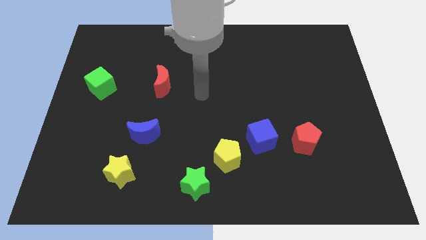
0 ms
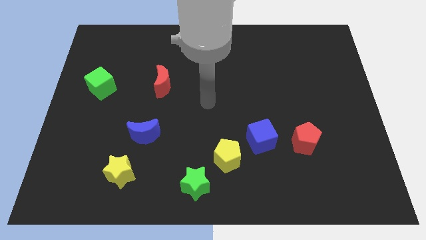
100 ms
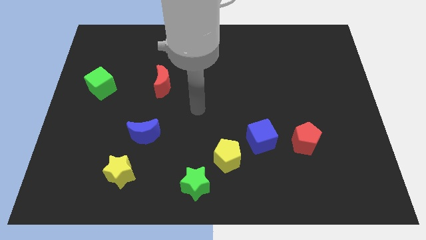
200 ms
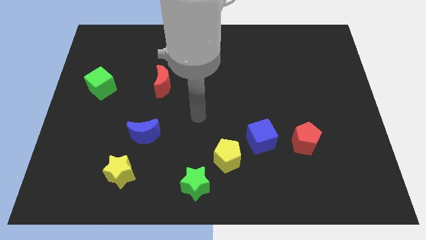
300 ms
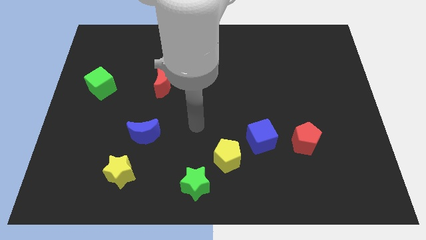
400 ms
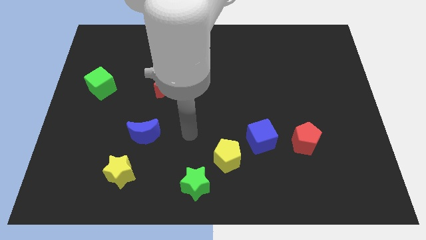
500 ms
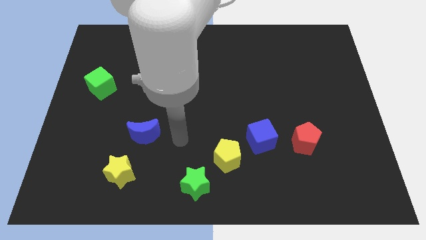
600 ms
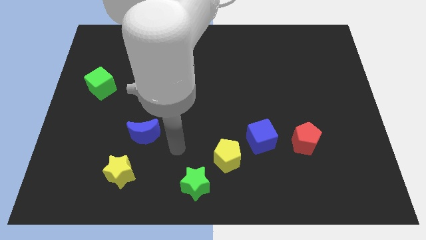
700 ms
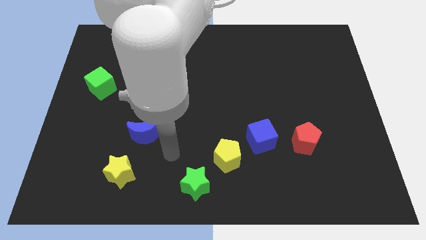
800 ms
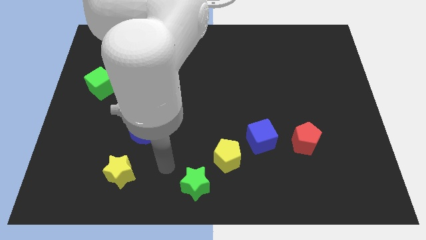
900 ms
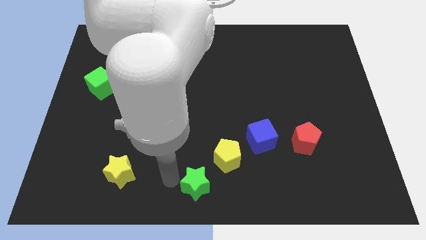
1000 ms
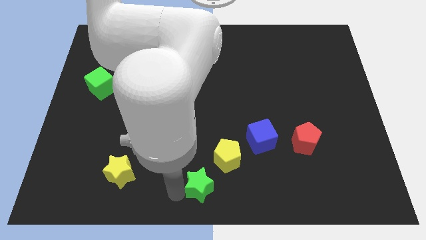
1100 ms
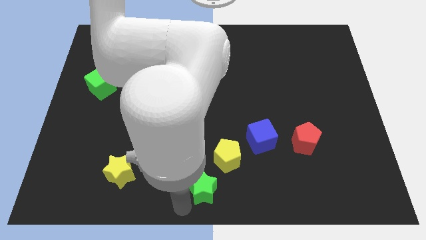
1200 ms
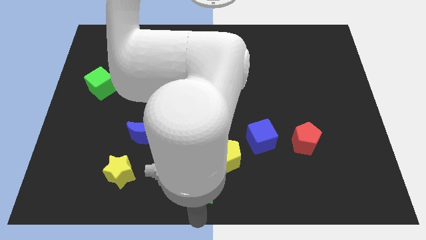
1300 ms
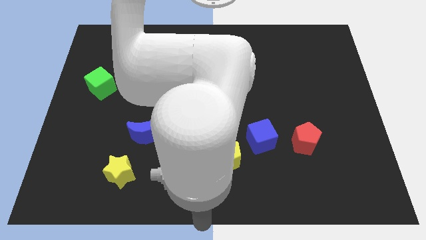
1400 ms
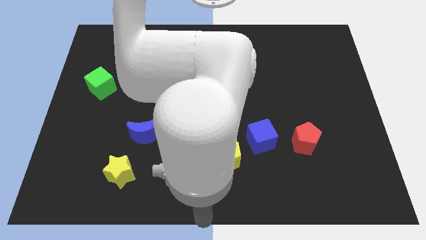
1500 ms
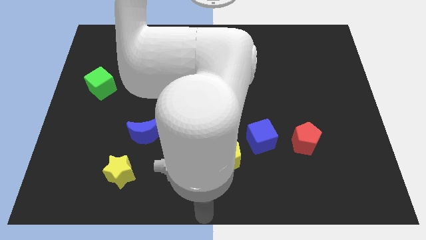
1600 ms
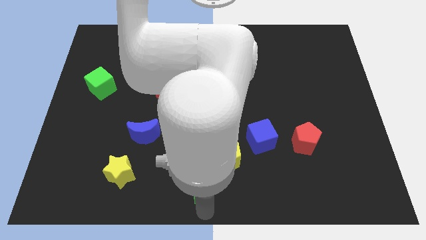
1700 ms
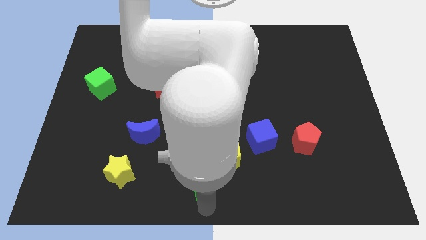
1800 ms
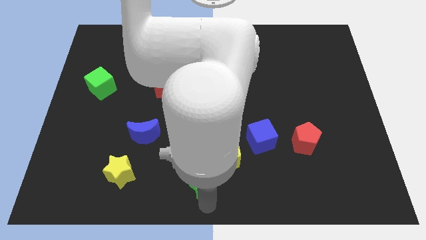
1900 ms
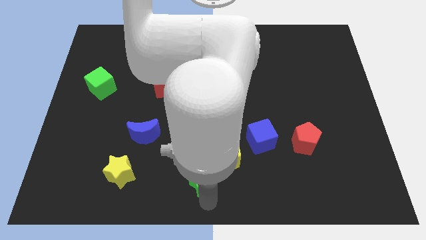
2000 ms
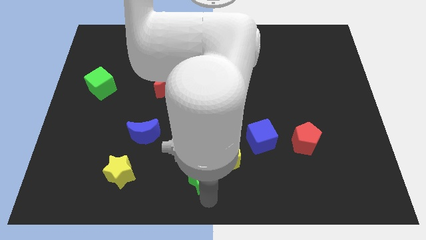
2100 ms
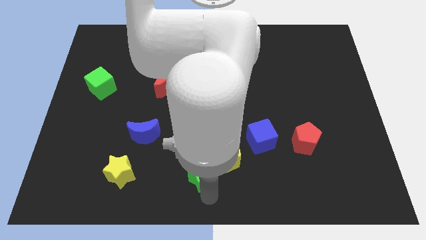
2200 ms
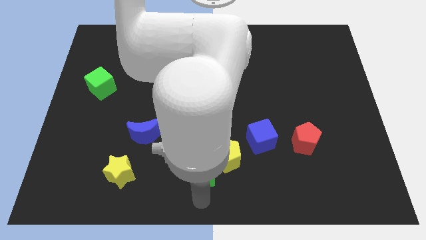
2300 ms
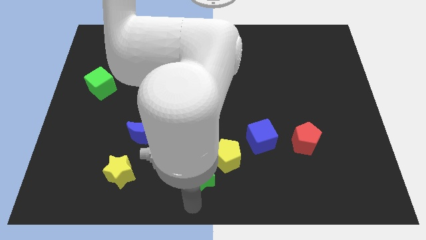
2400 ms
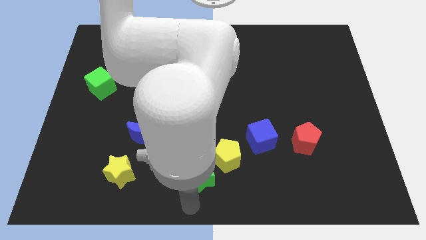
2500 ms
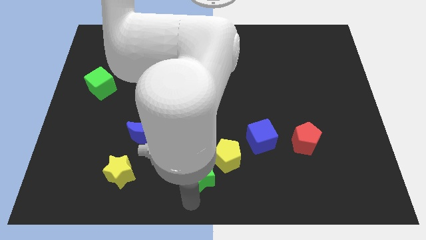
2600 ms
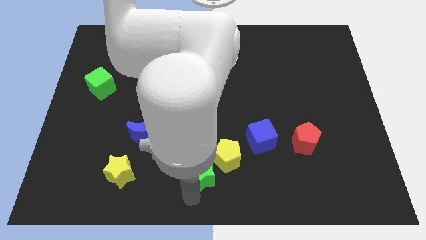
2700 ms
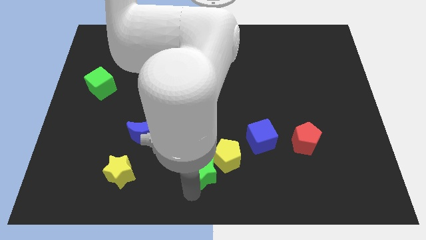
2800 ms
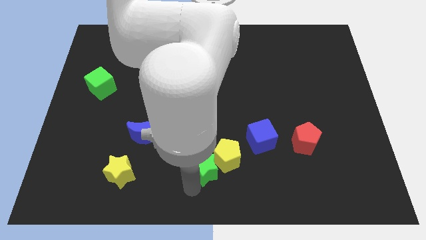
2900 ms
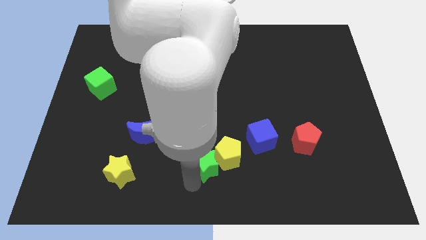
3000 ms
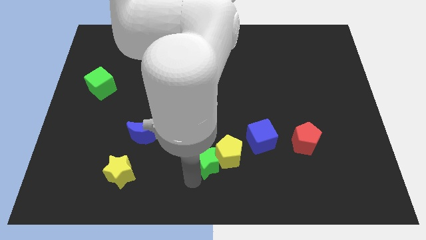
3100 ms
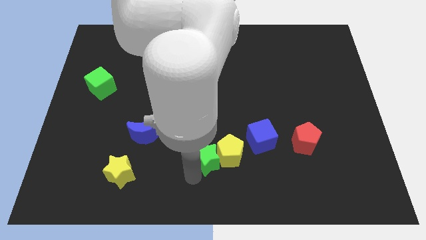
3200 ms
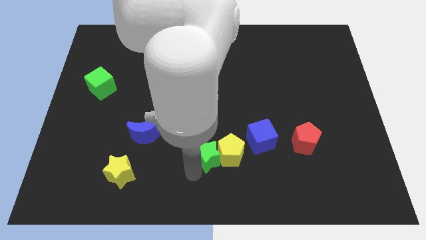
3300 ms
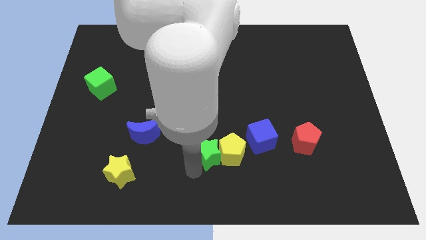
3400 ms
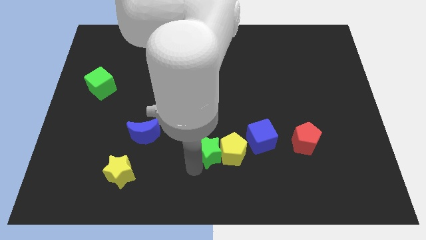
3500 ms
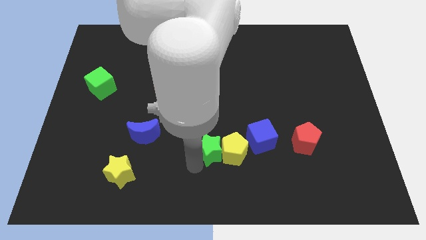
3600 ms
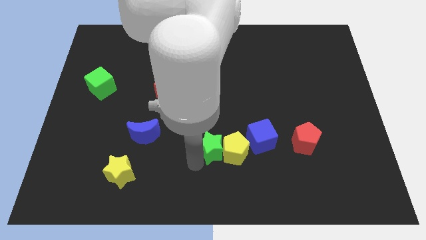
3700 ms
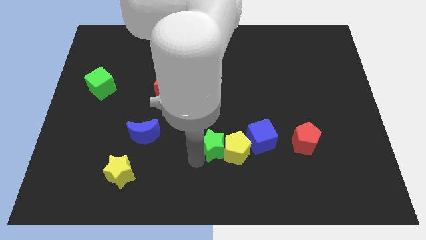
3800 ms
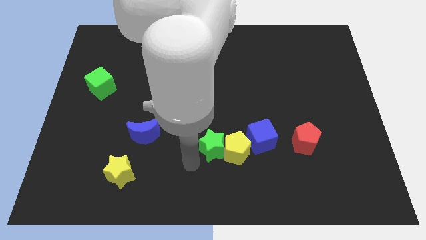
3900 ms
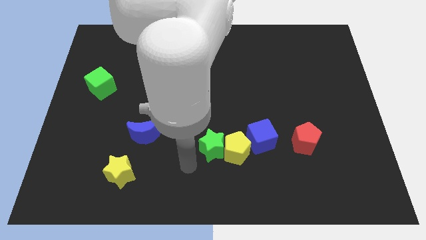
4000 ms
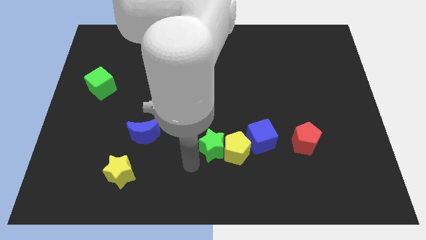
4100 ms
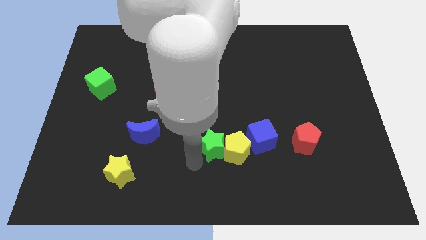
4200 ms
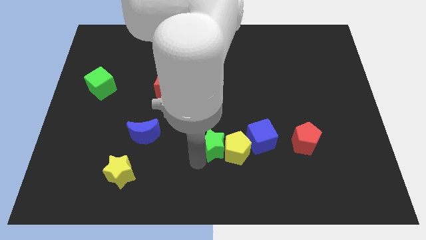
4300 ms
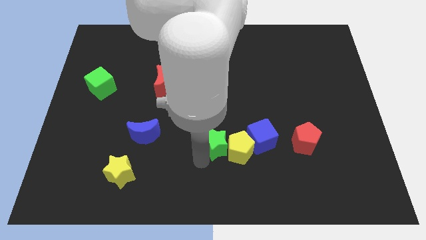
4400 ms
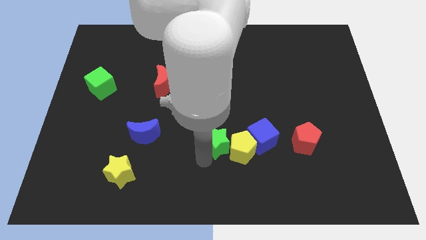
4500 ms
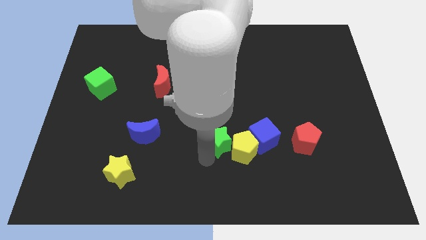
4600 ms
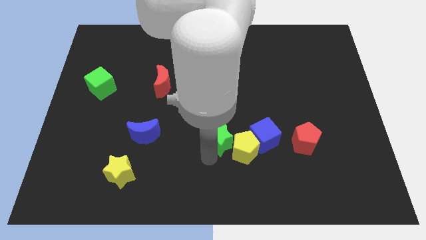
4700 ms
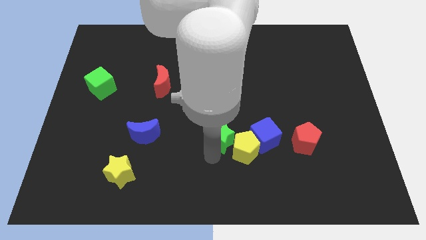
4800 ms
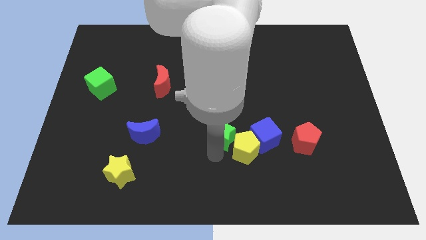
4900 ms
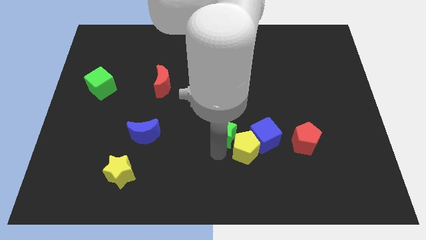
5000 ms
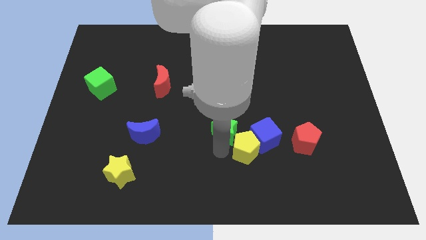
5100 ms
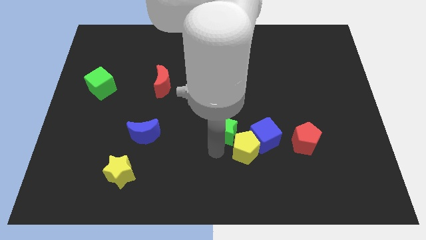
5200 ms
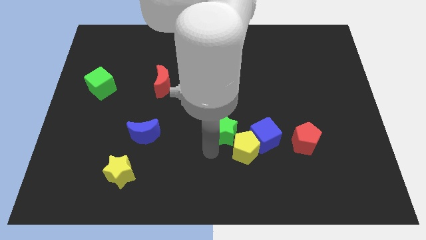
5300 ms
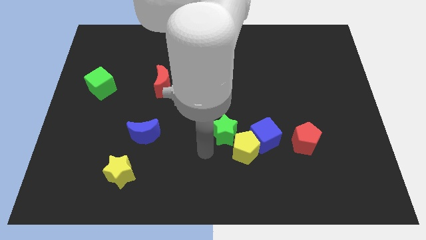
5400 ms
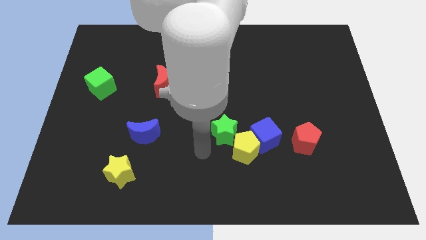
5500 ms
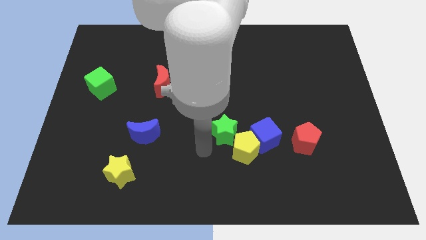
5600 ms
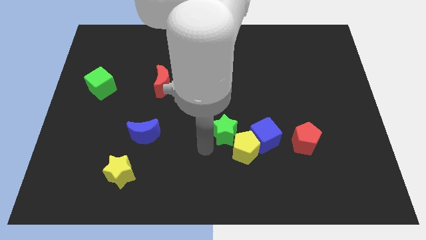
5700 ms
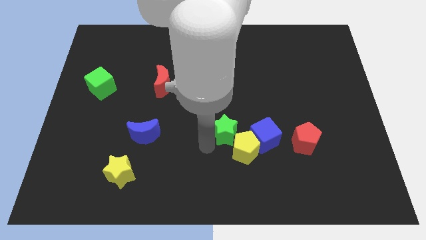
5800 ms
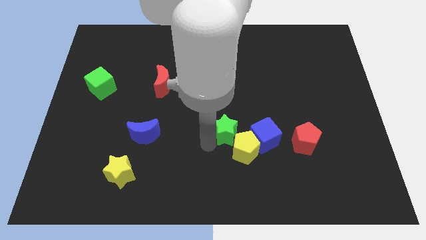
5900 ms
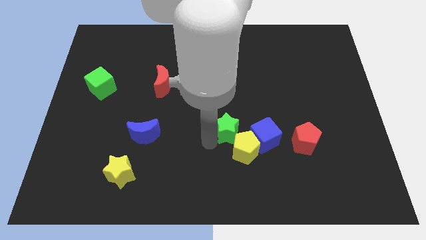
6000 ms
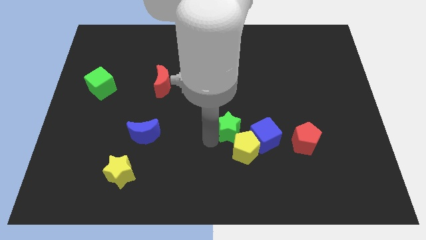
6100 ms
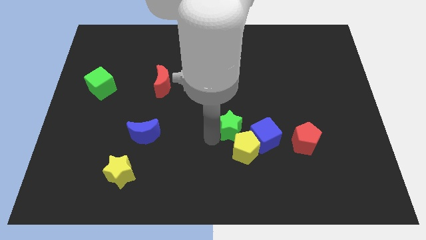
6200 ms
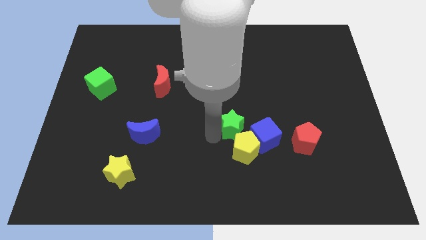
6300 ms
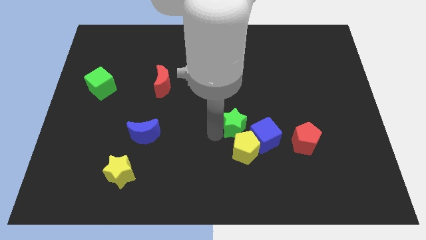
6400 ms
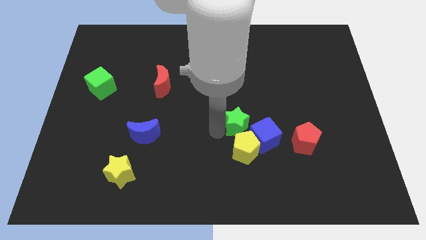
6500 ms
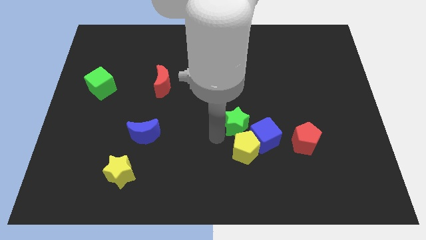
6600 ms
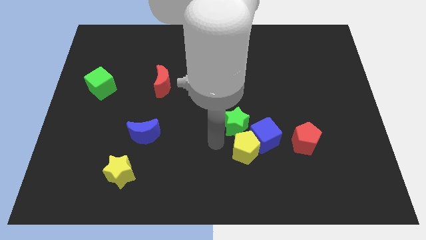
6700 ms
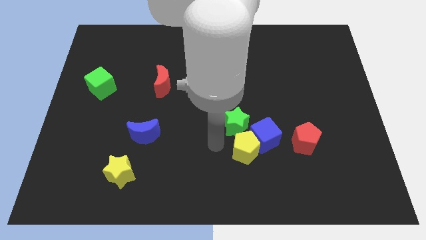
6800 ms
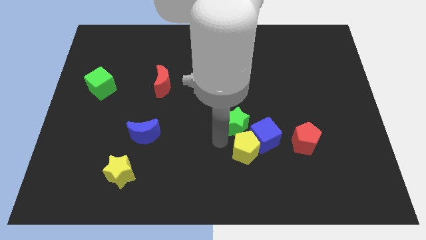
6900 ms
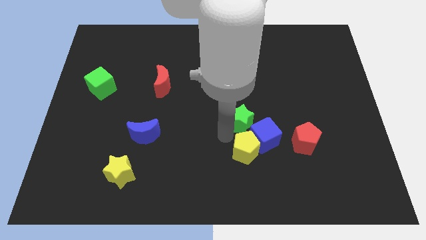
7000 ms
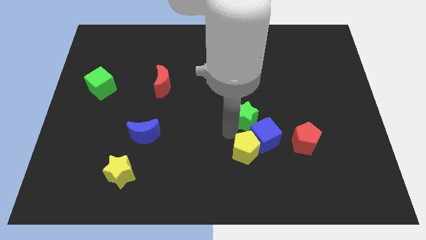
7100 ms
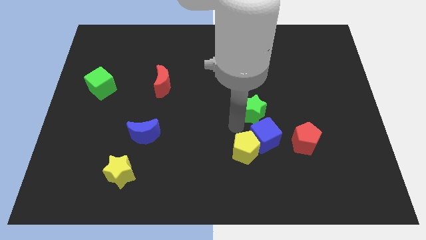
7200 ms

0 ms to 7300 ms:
push the green star diagonally up and right

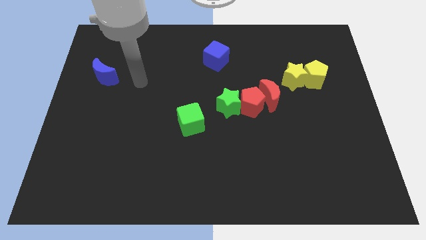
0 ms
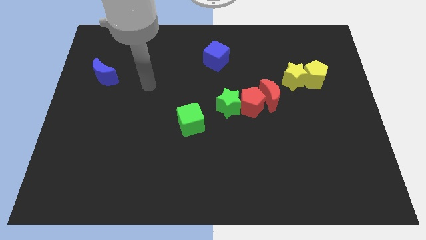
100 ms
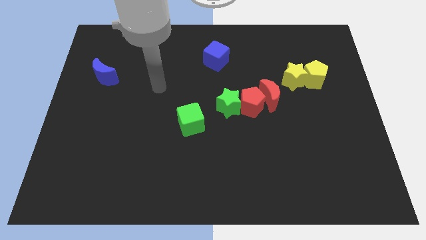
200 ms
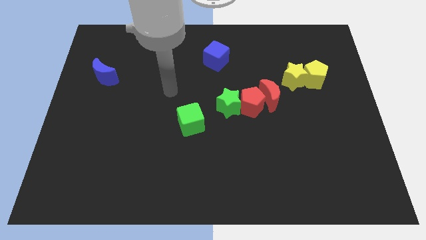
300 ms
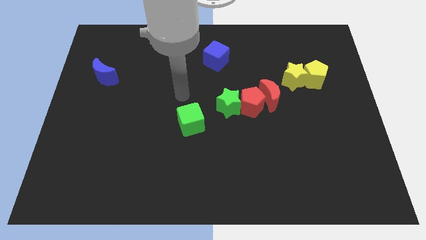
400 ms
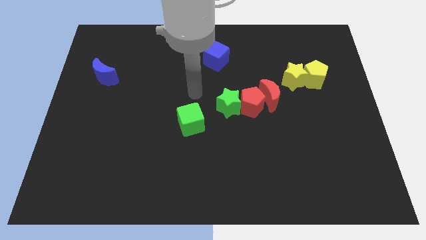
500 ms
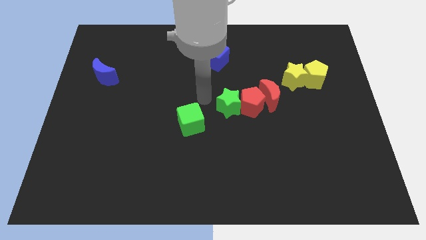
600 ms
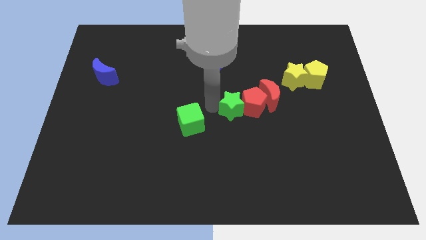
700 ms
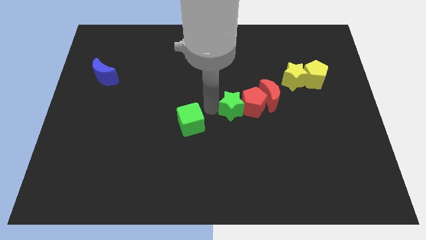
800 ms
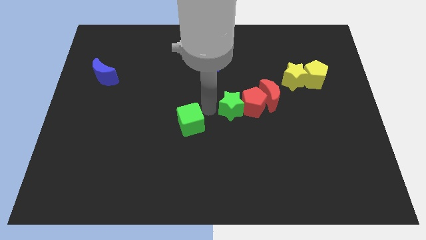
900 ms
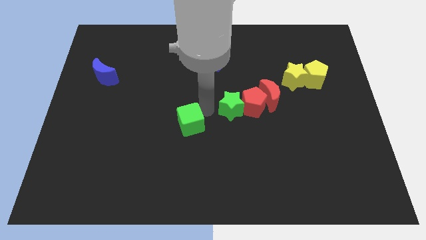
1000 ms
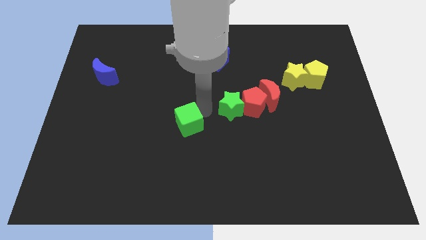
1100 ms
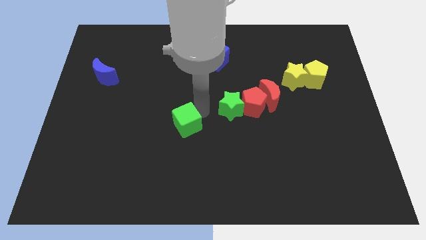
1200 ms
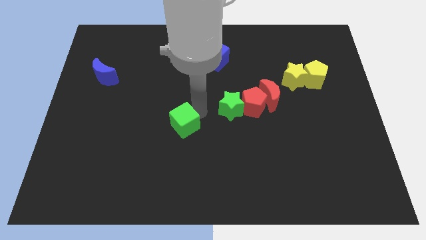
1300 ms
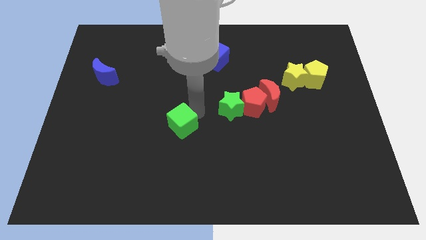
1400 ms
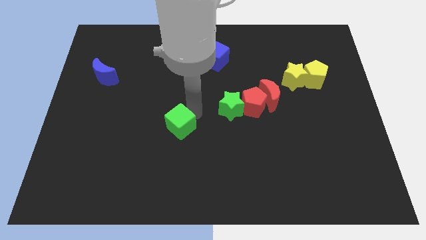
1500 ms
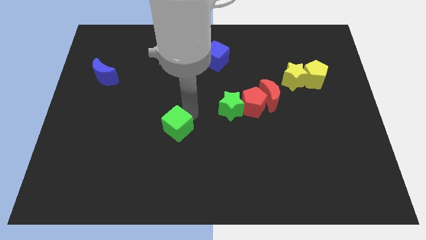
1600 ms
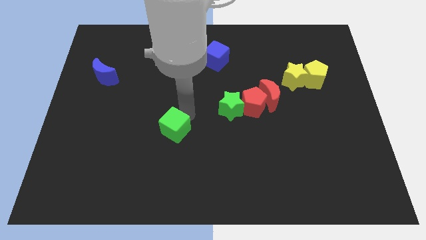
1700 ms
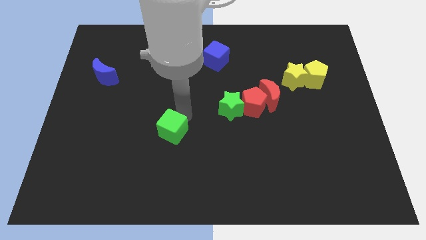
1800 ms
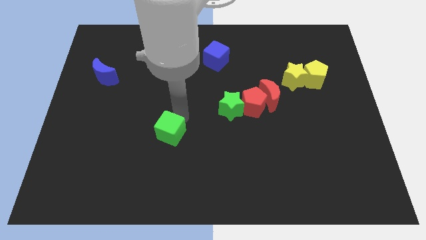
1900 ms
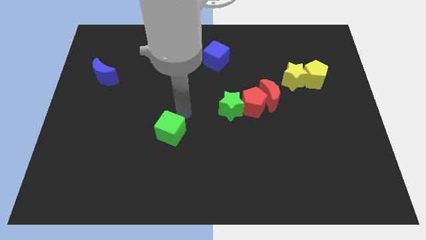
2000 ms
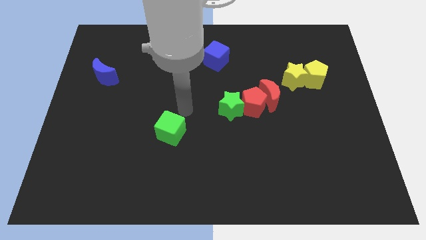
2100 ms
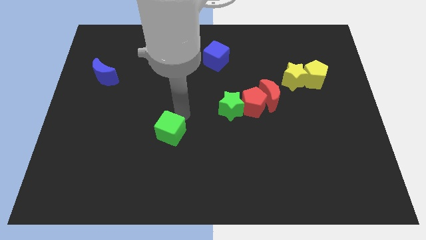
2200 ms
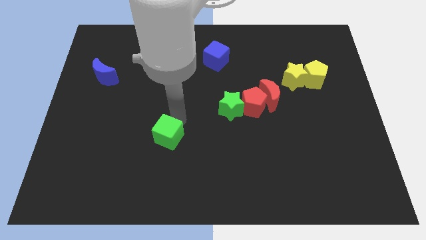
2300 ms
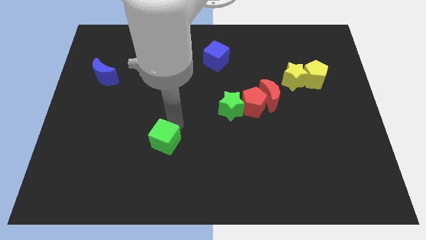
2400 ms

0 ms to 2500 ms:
move the green cube a little bit diagonally down and to the left
